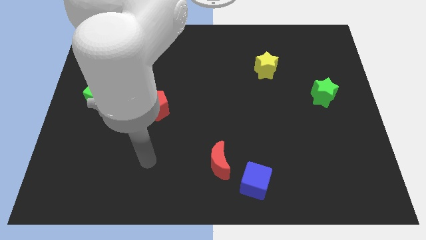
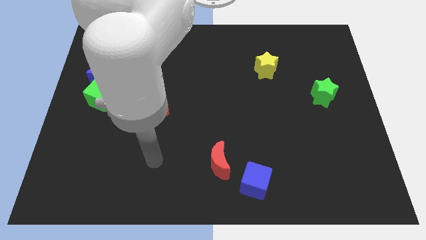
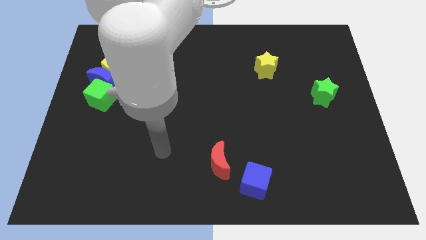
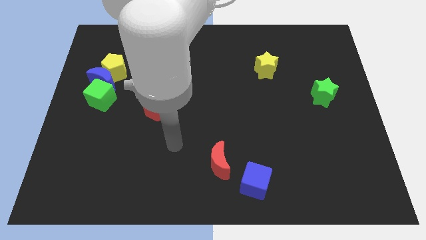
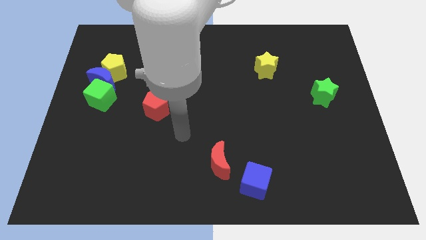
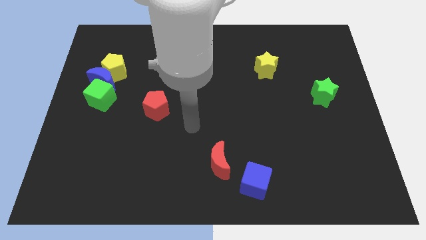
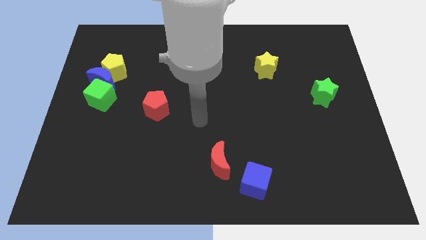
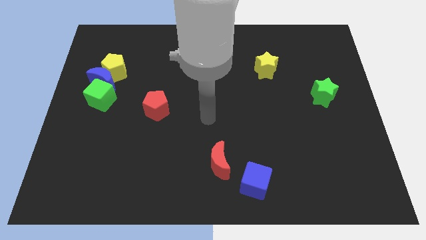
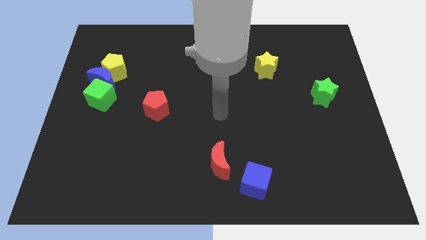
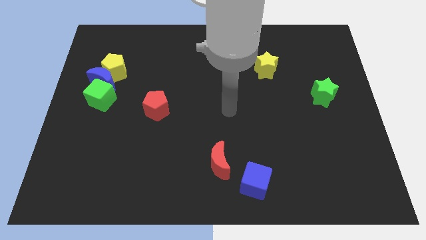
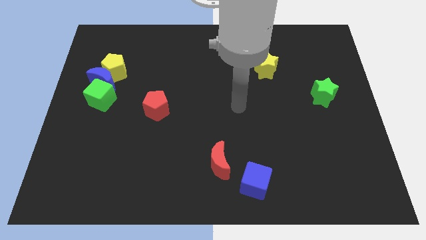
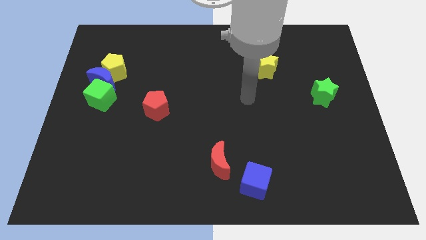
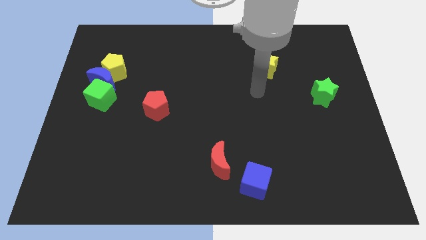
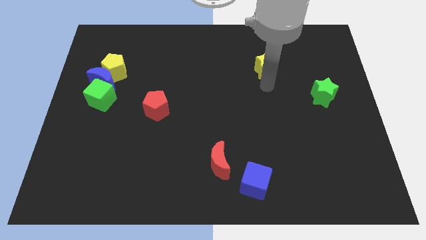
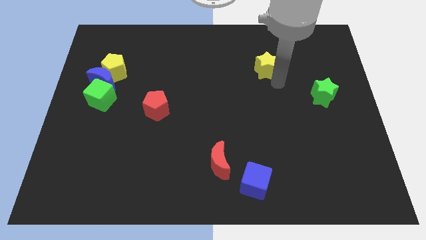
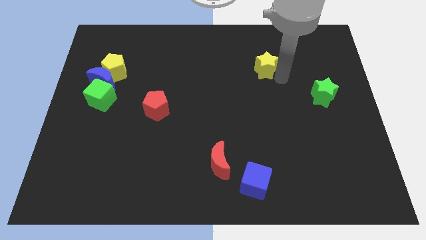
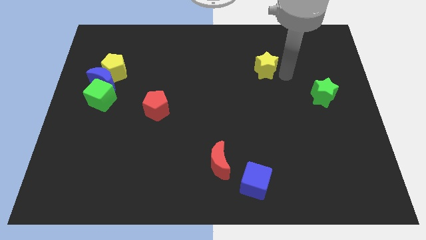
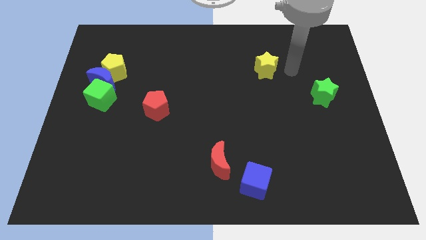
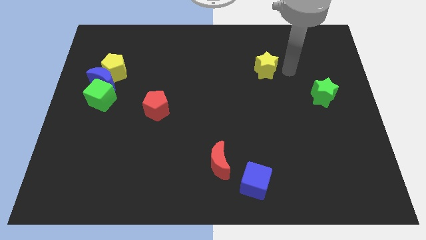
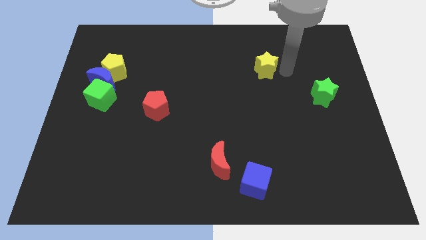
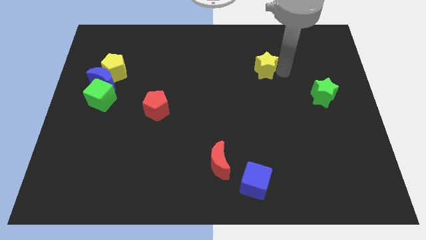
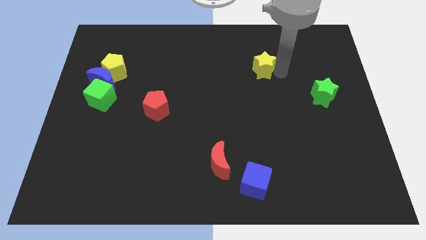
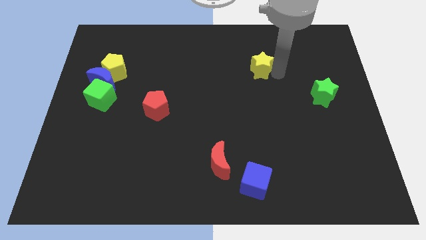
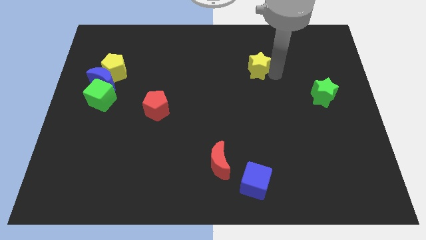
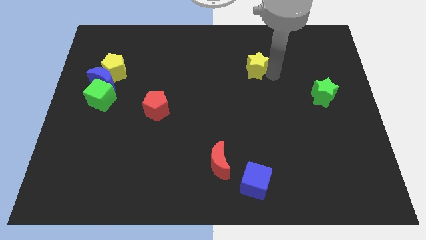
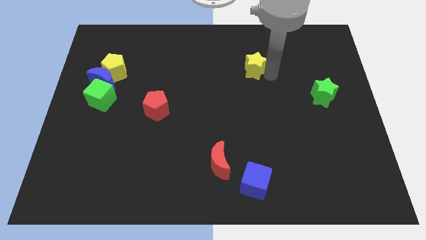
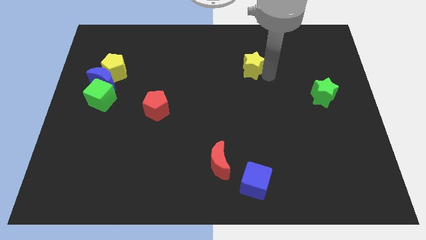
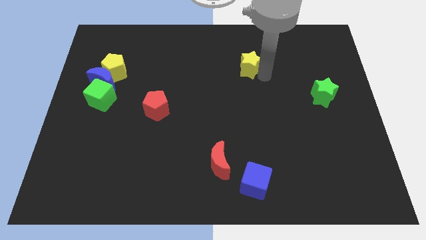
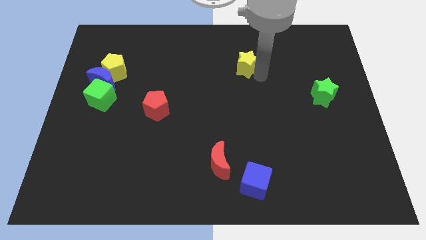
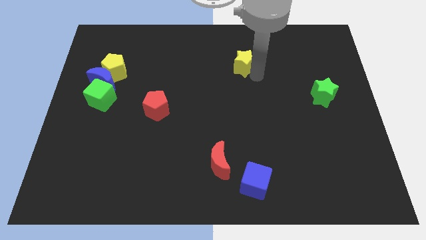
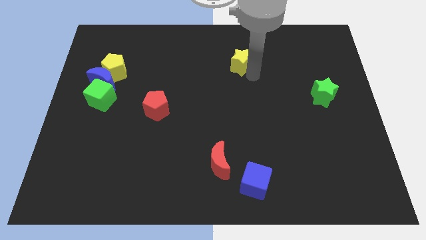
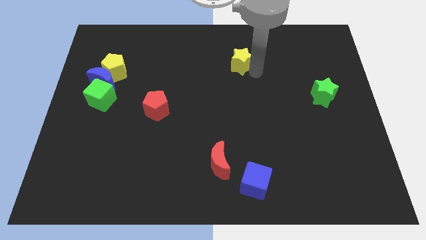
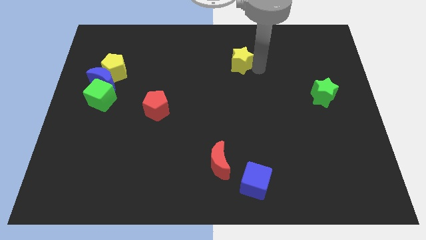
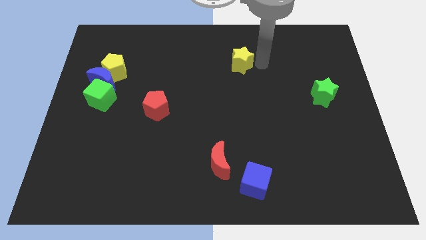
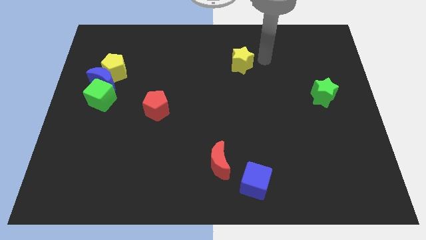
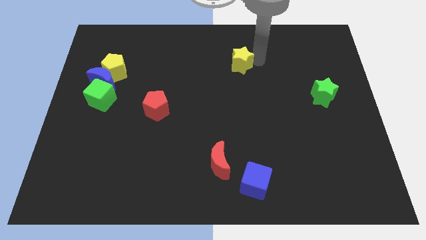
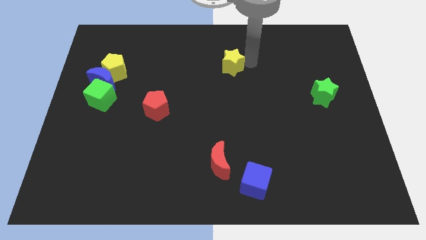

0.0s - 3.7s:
slightly slide the yellow star to the left

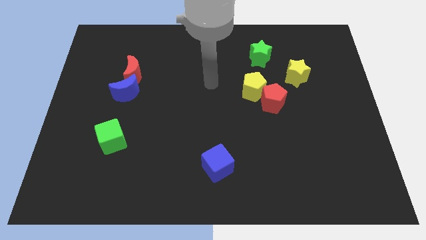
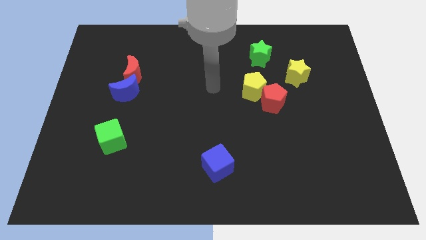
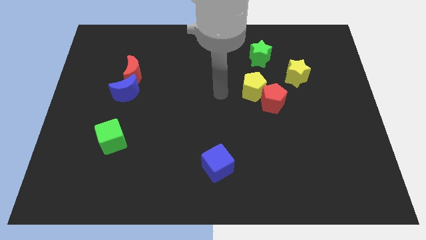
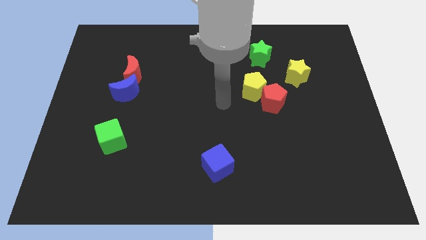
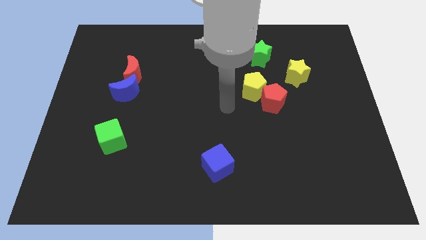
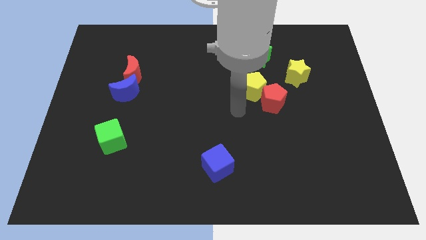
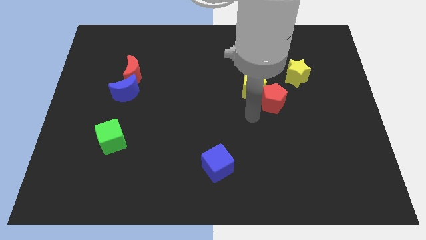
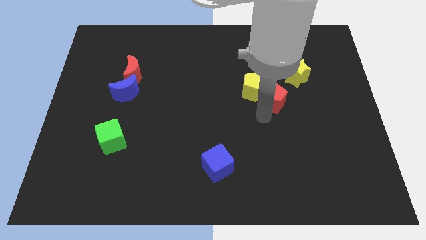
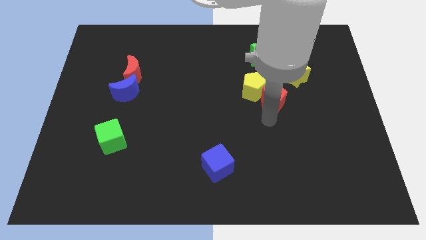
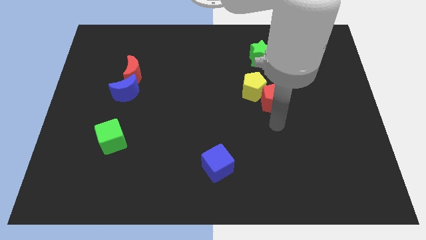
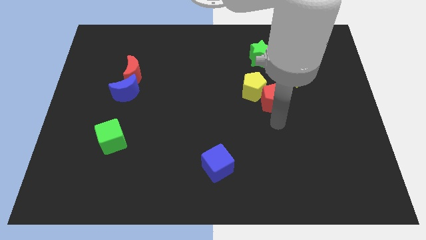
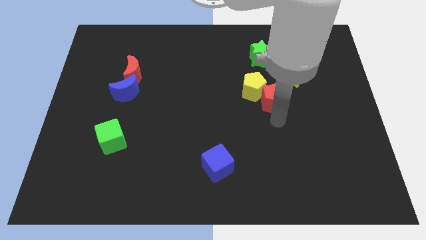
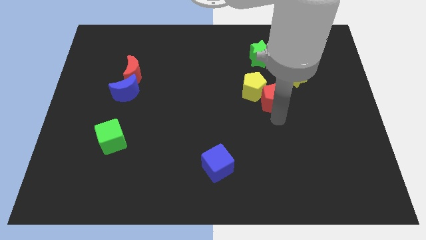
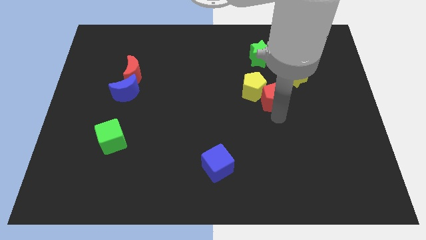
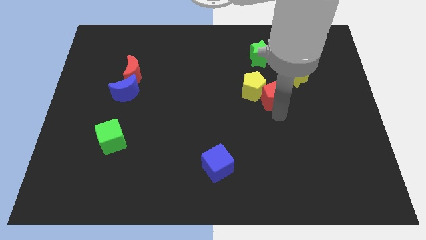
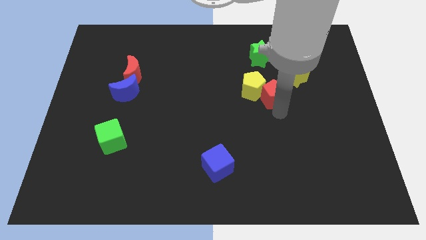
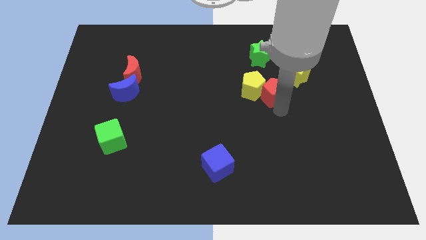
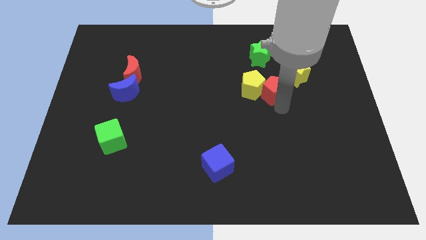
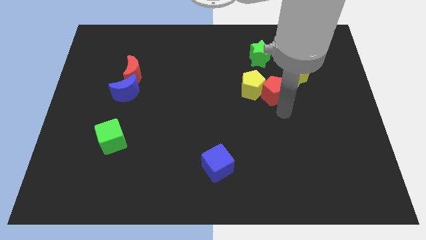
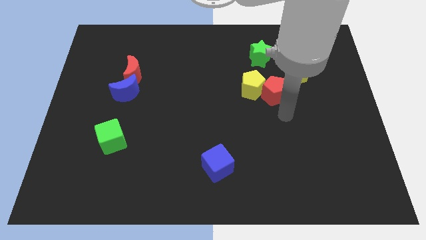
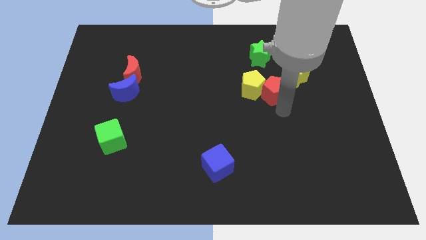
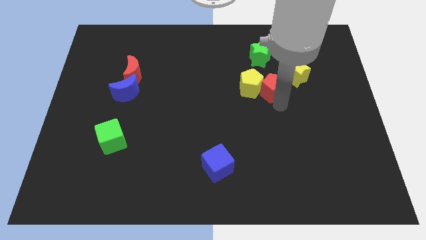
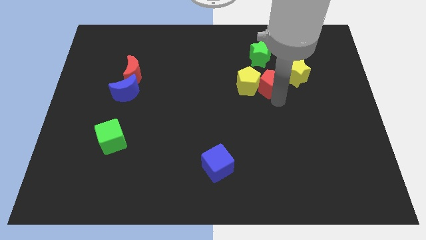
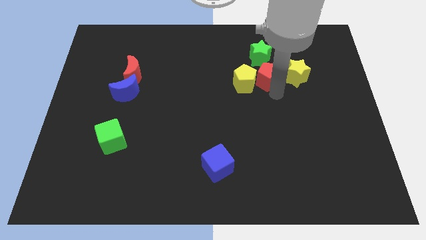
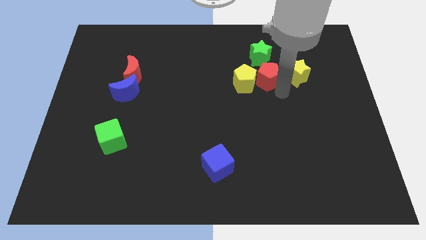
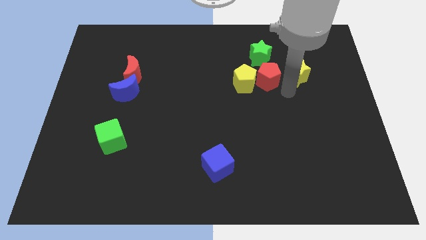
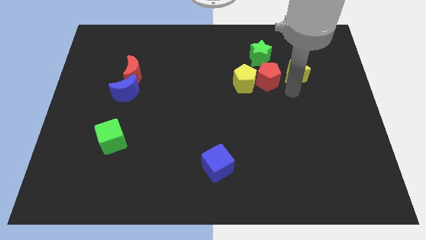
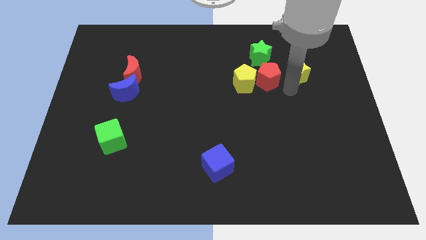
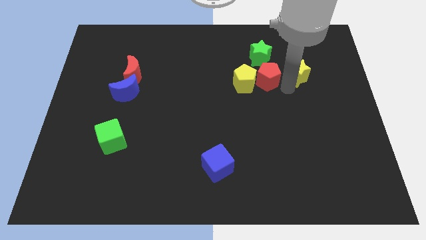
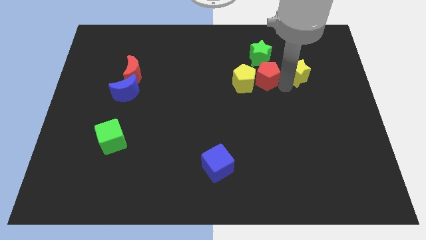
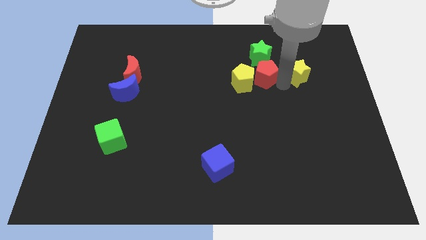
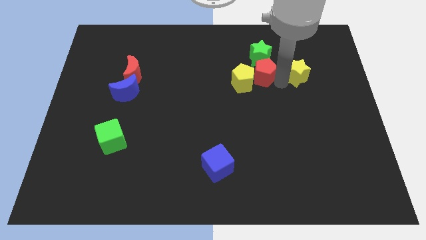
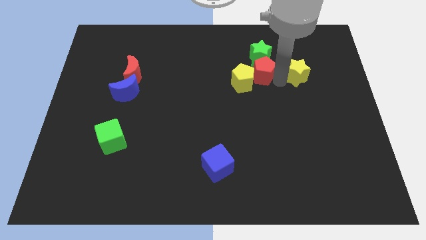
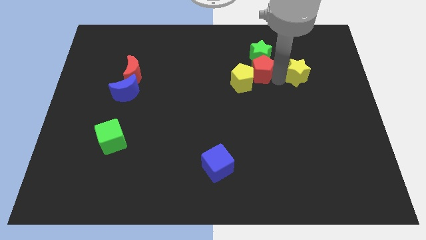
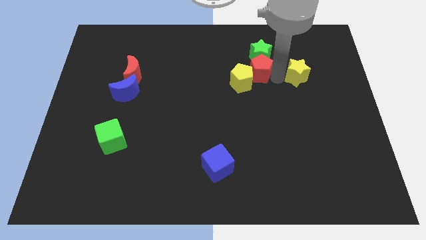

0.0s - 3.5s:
move the red pentagon a little bit up and to the left

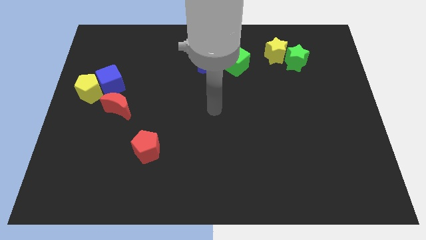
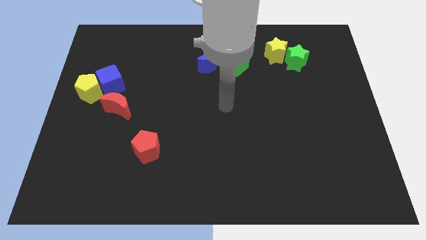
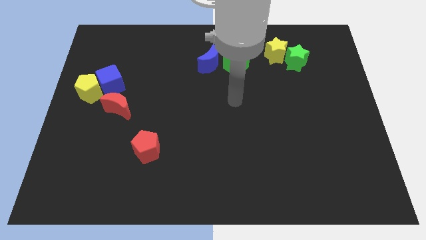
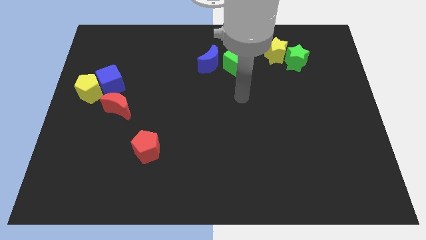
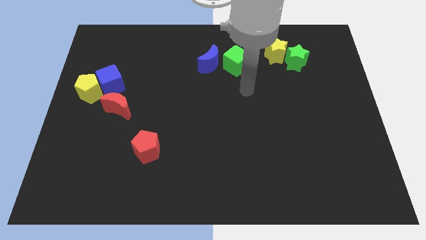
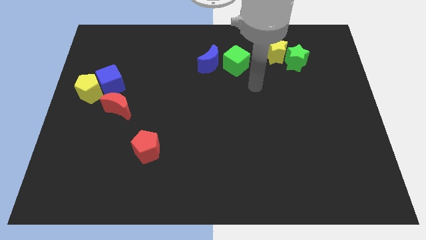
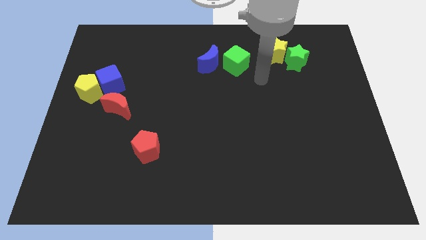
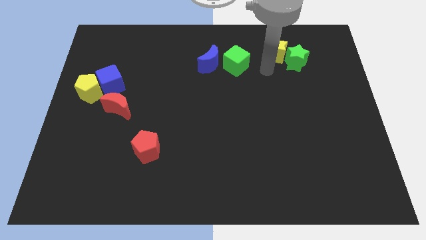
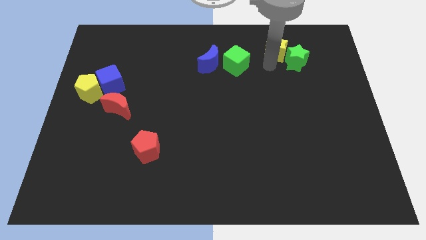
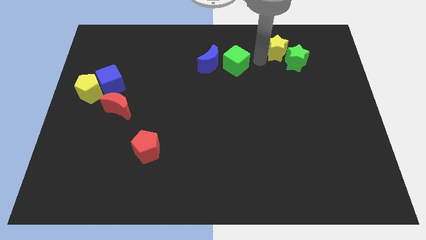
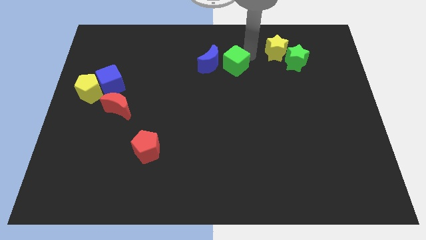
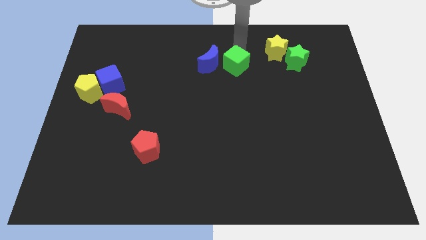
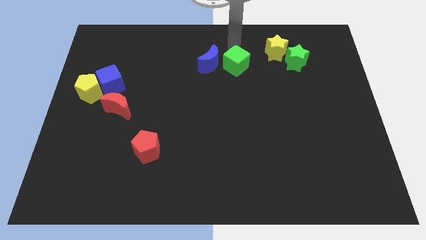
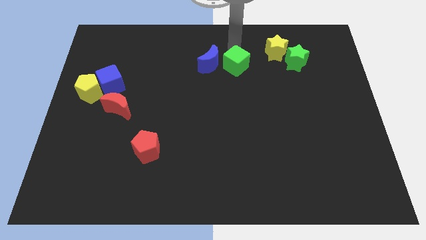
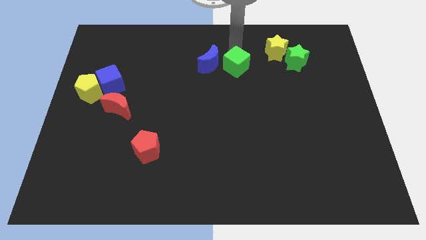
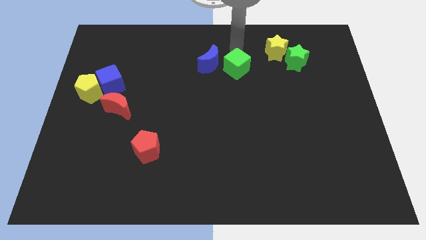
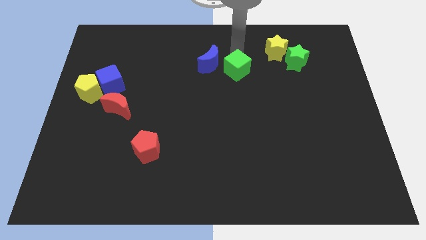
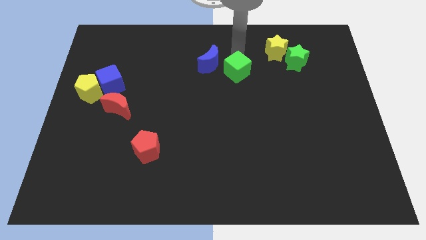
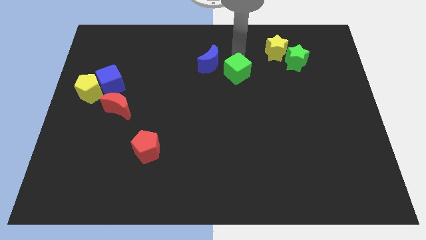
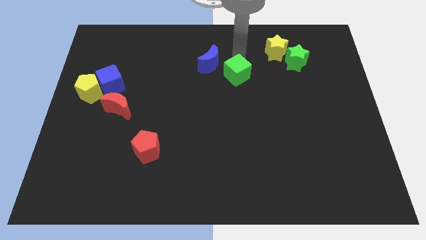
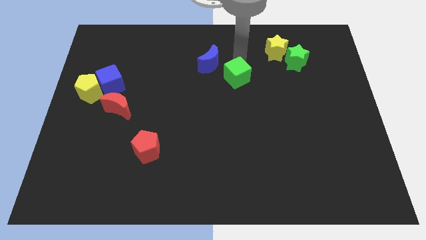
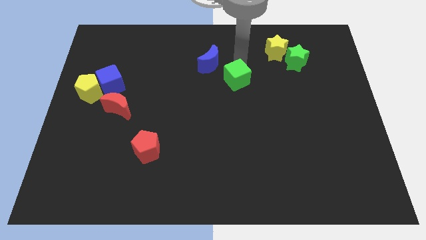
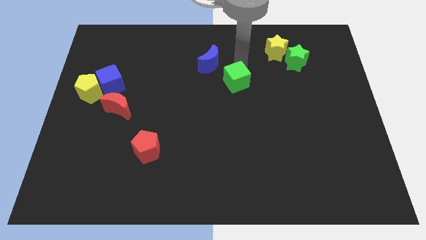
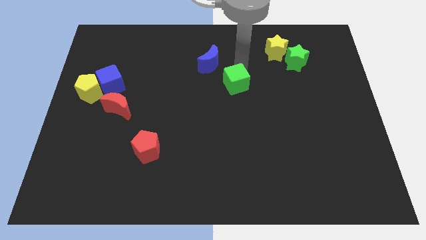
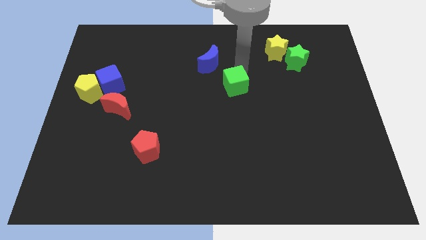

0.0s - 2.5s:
move the green cube downwards slightly
